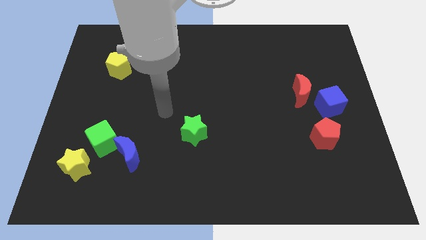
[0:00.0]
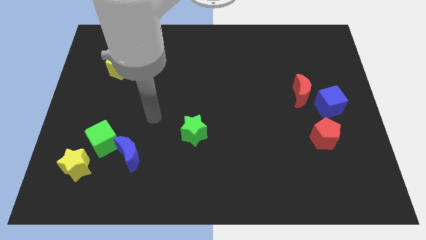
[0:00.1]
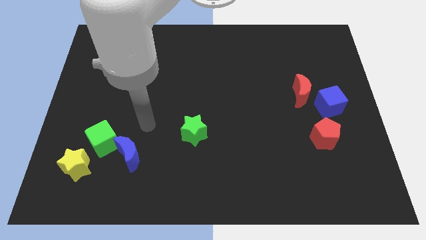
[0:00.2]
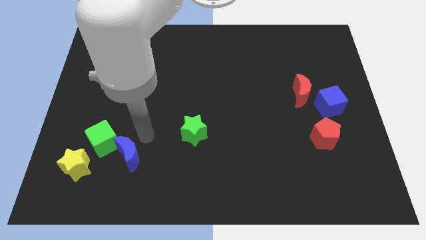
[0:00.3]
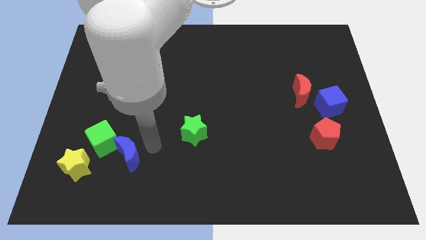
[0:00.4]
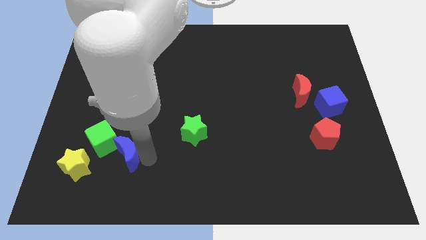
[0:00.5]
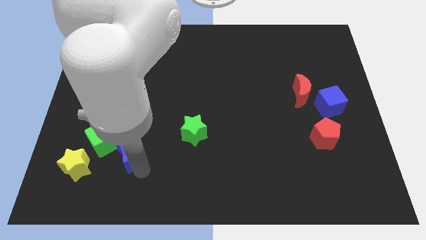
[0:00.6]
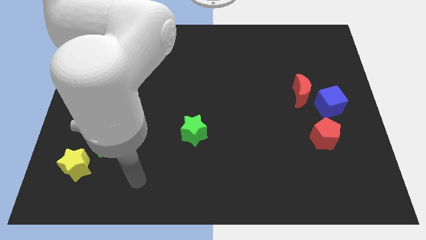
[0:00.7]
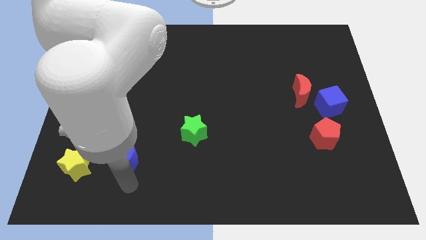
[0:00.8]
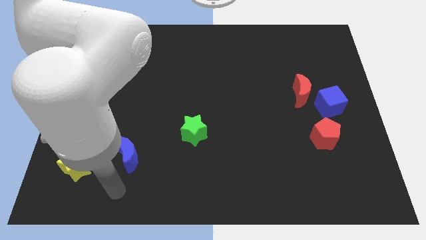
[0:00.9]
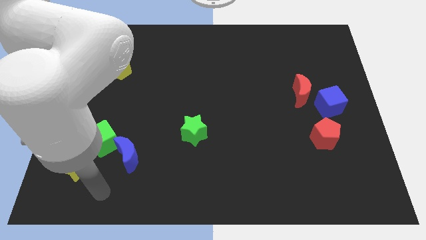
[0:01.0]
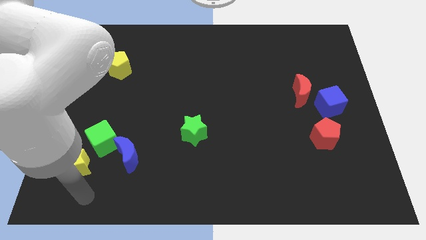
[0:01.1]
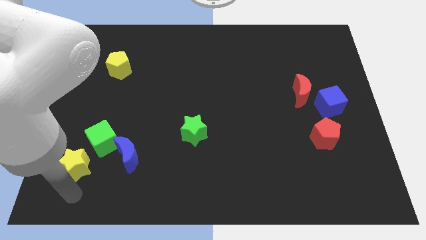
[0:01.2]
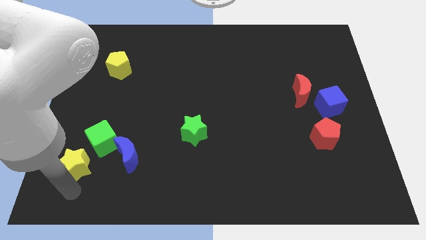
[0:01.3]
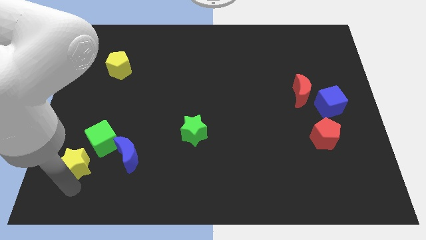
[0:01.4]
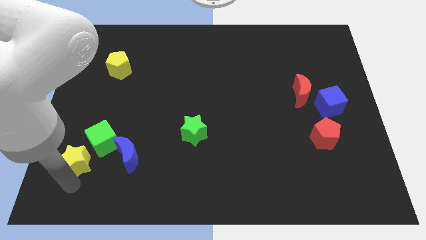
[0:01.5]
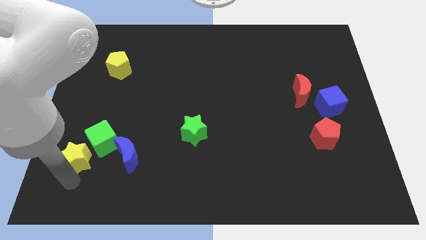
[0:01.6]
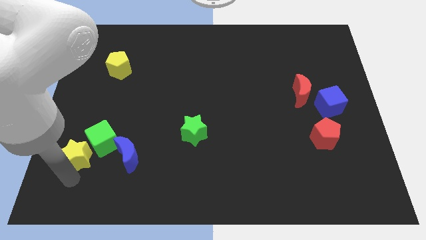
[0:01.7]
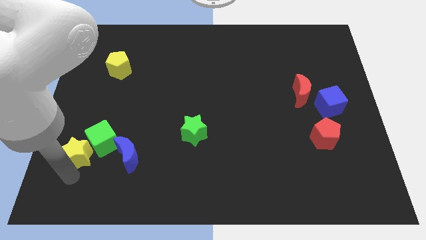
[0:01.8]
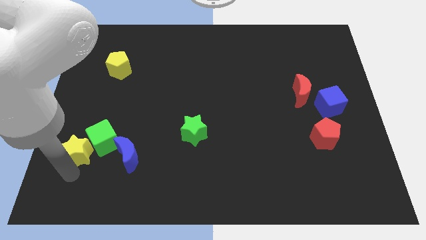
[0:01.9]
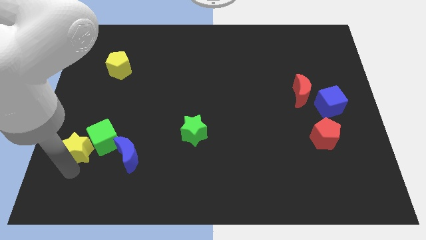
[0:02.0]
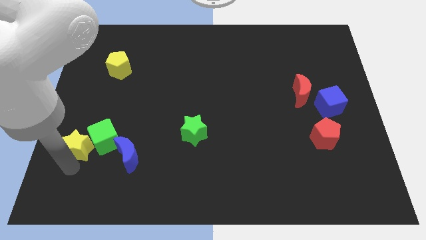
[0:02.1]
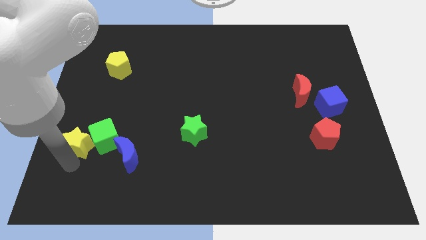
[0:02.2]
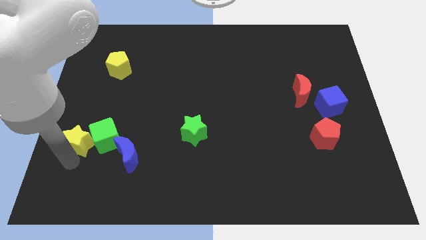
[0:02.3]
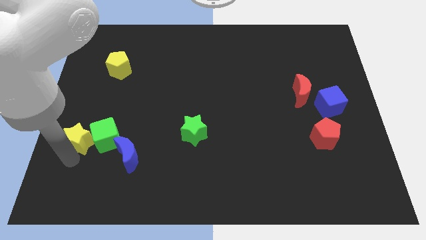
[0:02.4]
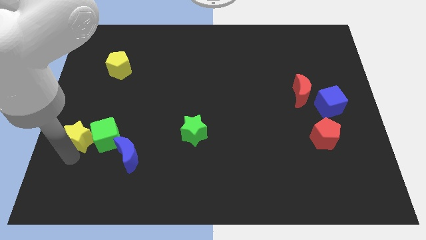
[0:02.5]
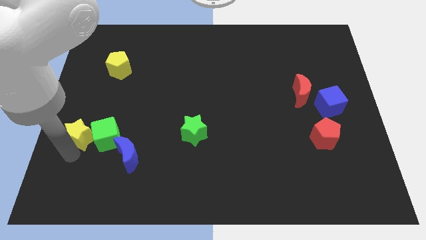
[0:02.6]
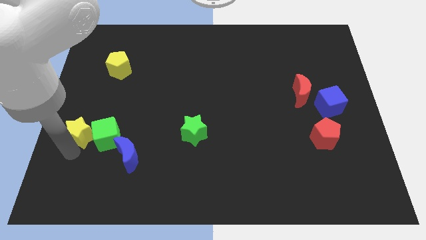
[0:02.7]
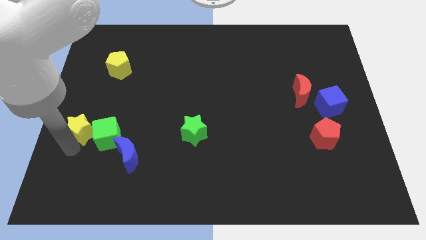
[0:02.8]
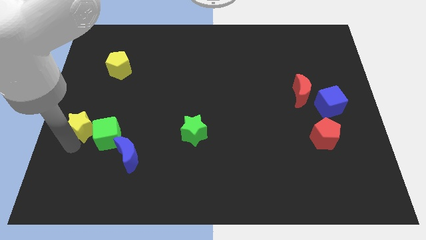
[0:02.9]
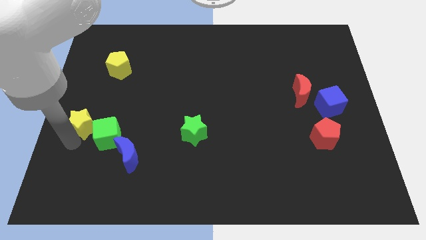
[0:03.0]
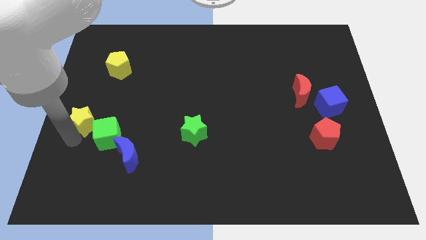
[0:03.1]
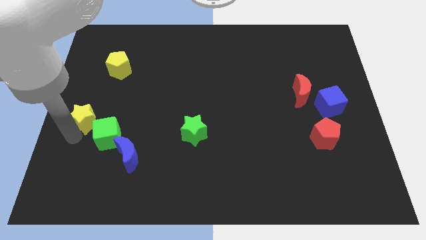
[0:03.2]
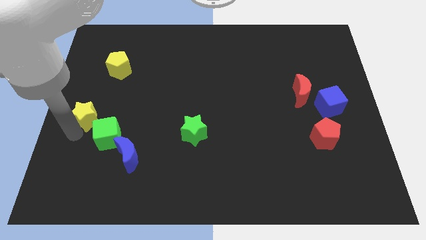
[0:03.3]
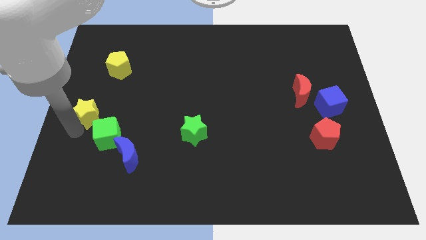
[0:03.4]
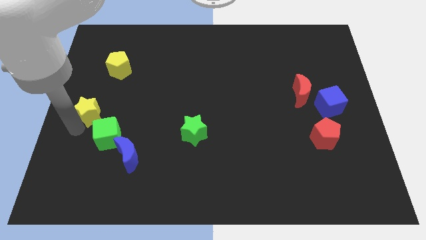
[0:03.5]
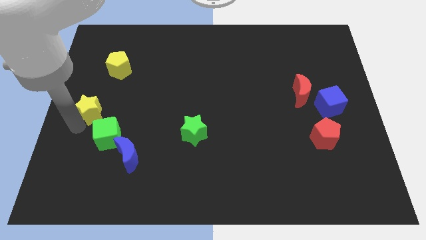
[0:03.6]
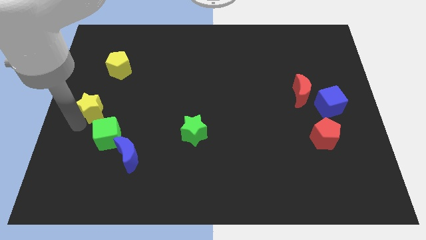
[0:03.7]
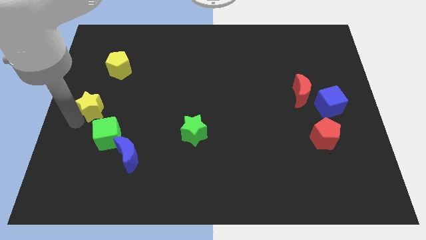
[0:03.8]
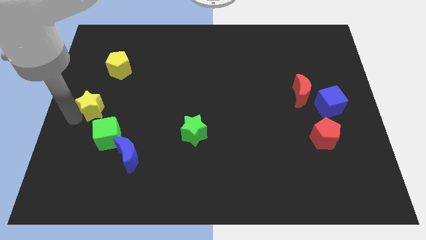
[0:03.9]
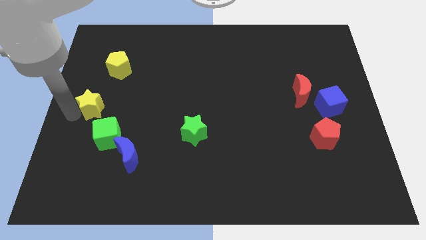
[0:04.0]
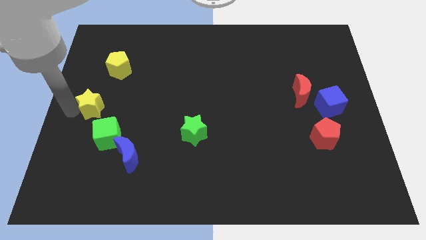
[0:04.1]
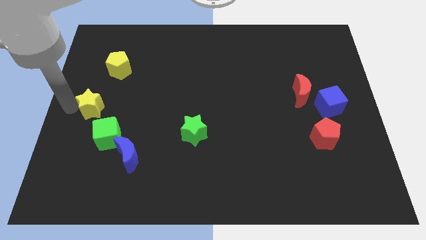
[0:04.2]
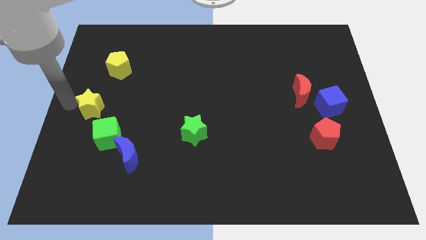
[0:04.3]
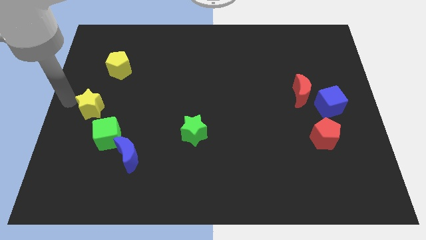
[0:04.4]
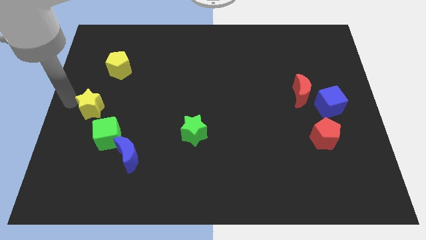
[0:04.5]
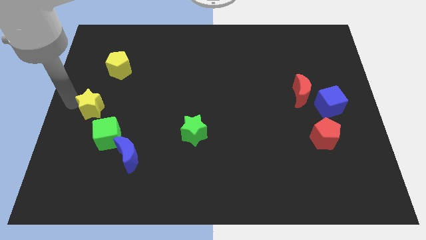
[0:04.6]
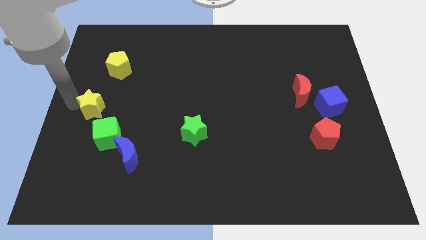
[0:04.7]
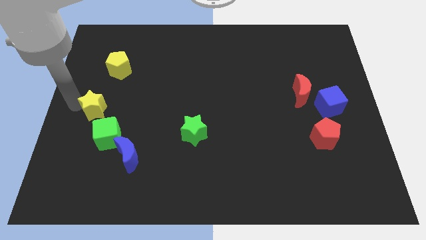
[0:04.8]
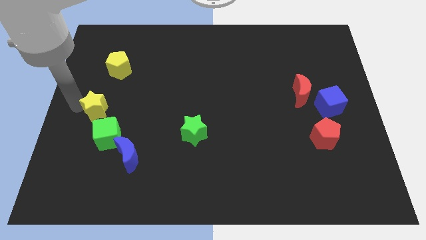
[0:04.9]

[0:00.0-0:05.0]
slide the yellow star up and then to the right slightly

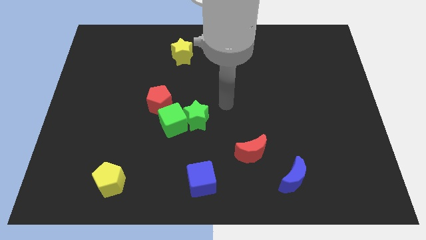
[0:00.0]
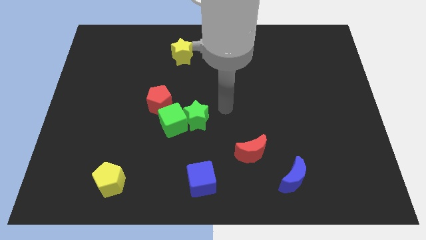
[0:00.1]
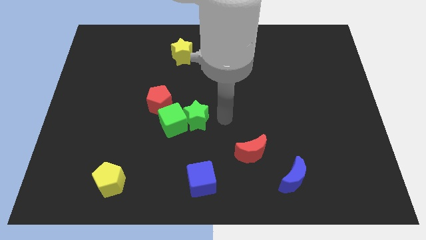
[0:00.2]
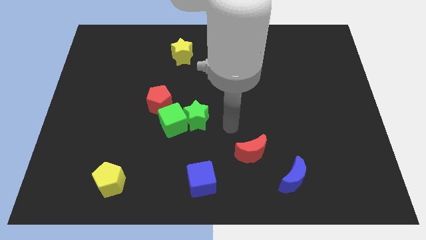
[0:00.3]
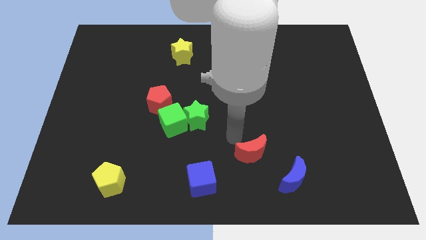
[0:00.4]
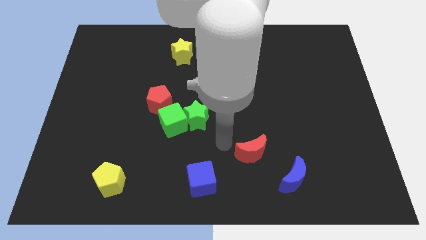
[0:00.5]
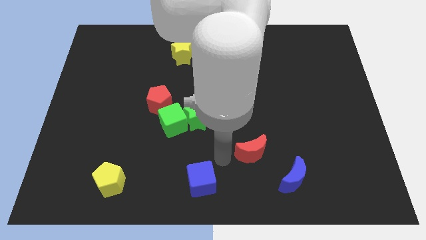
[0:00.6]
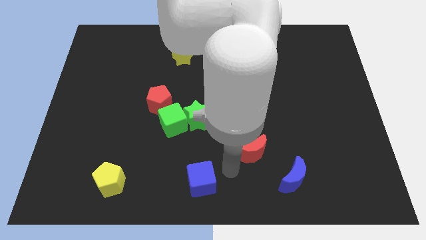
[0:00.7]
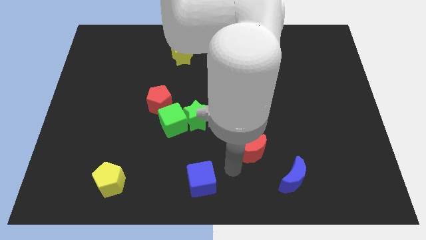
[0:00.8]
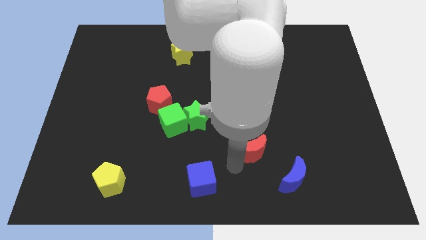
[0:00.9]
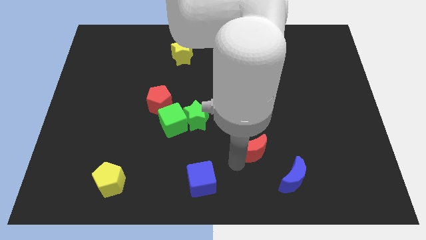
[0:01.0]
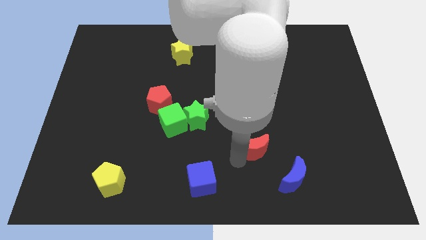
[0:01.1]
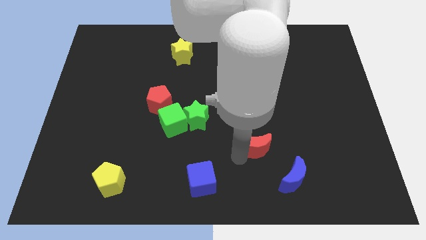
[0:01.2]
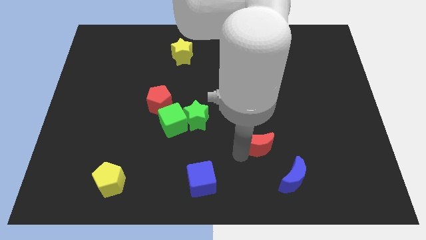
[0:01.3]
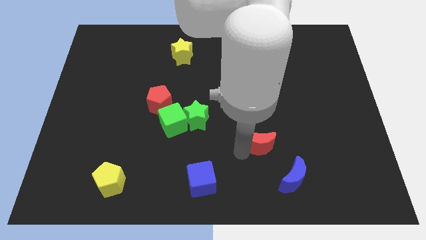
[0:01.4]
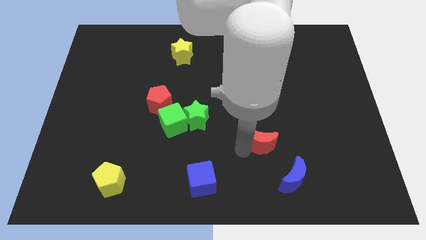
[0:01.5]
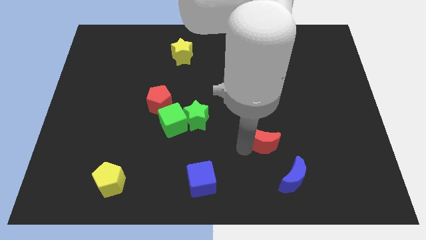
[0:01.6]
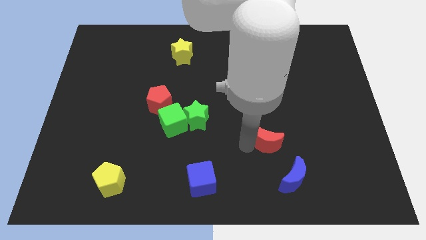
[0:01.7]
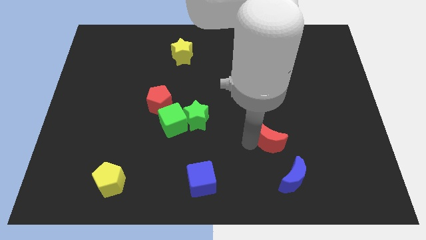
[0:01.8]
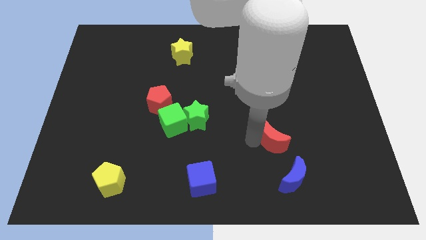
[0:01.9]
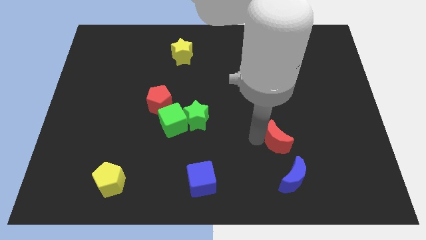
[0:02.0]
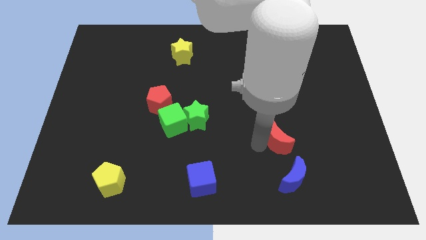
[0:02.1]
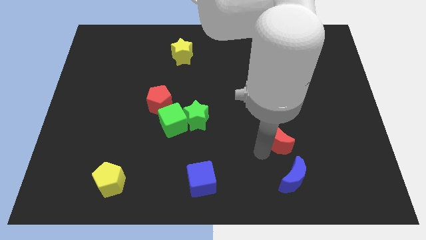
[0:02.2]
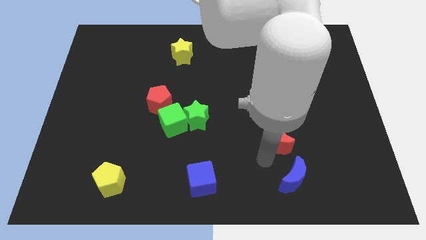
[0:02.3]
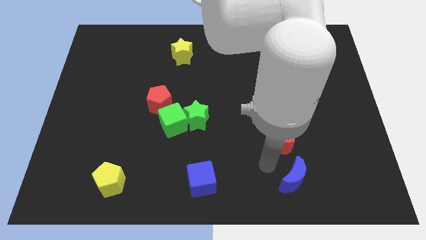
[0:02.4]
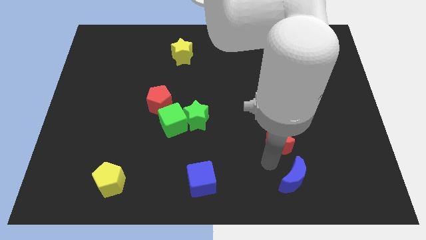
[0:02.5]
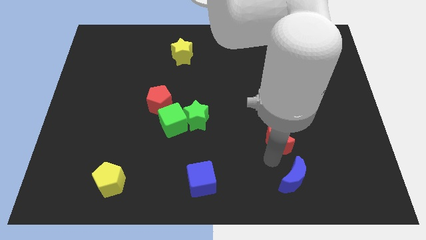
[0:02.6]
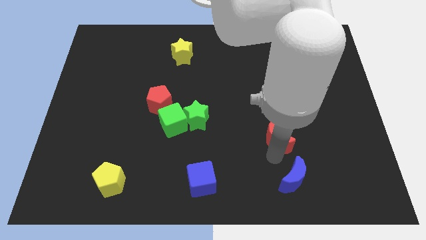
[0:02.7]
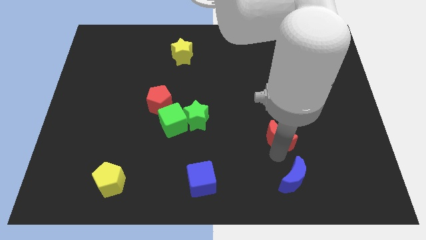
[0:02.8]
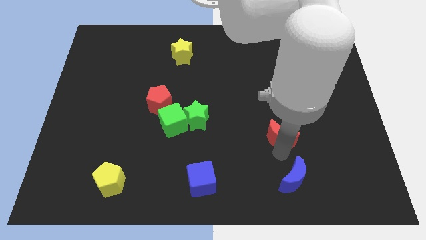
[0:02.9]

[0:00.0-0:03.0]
push the red moon slightly up and right diagonally
